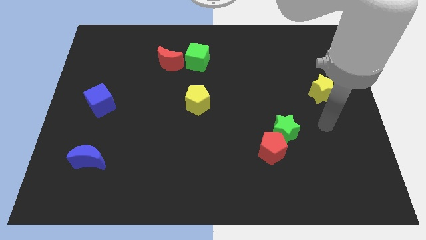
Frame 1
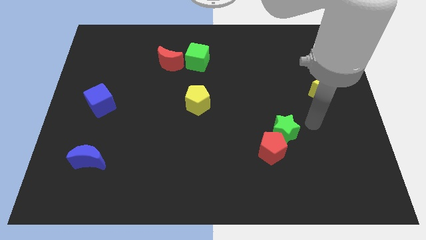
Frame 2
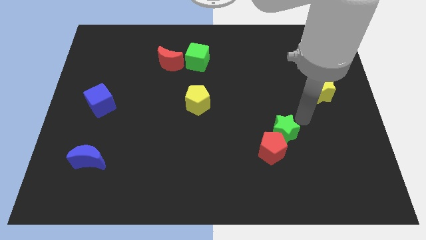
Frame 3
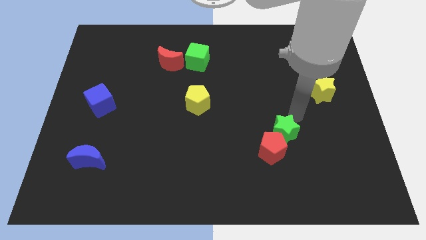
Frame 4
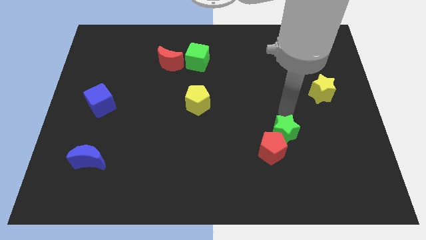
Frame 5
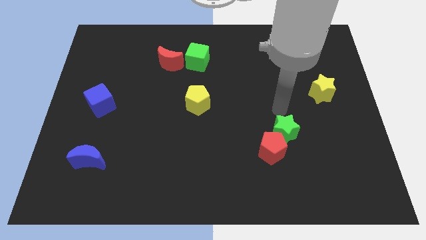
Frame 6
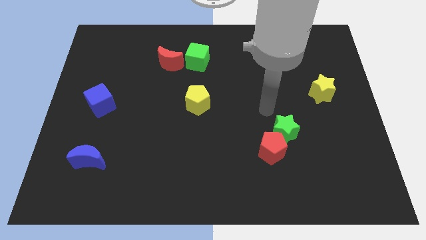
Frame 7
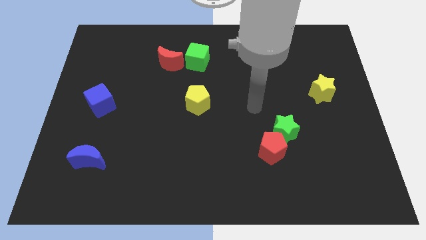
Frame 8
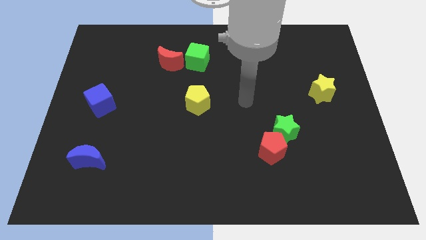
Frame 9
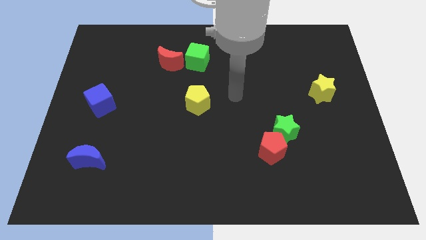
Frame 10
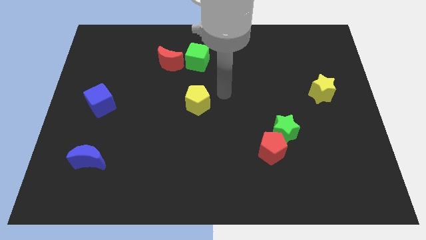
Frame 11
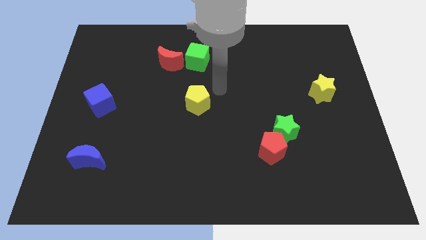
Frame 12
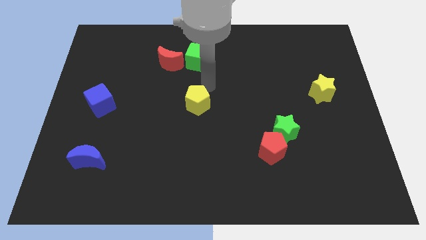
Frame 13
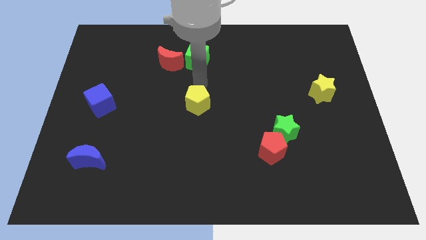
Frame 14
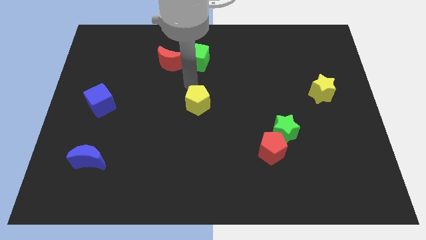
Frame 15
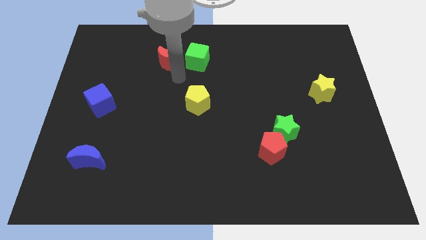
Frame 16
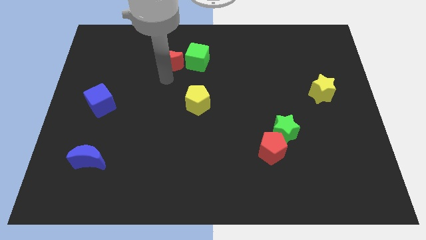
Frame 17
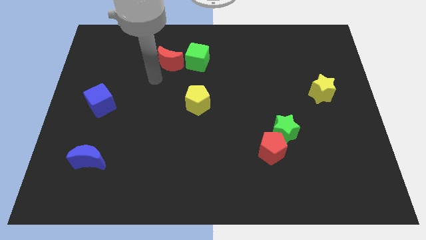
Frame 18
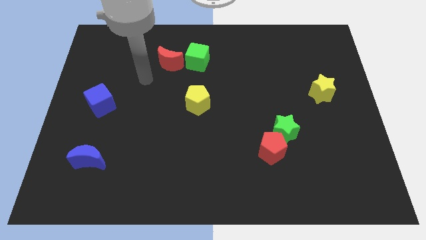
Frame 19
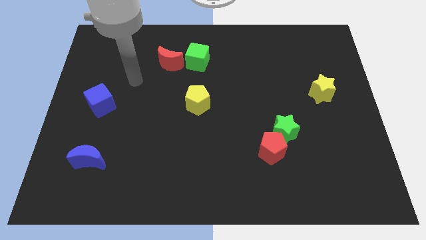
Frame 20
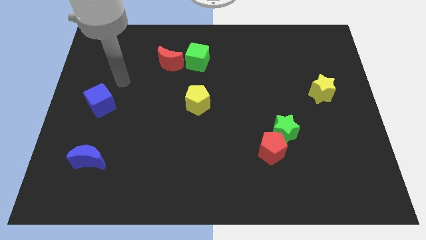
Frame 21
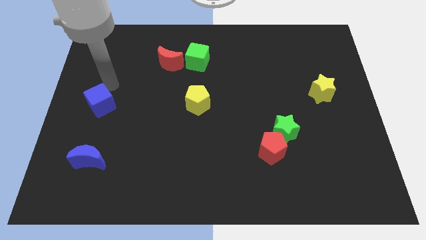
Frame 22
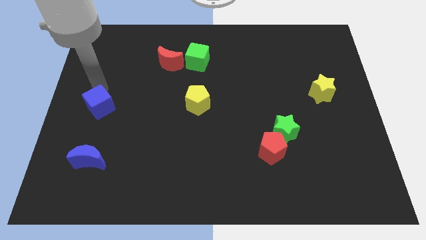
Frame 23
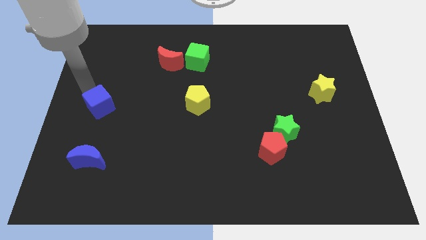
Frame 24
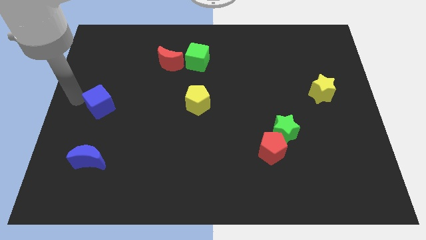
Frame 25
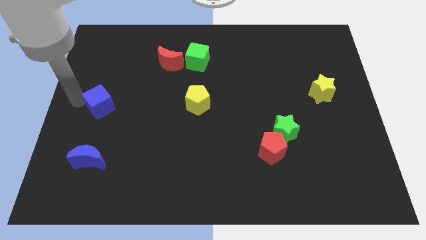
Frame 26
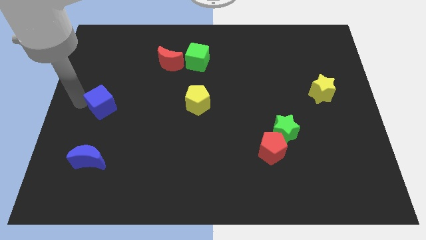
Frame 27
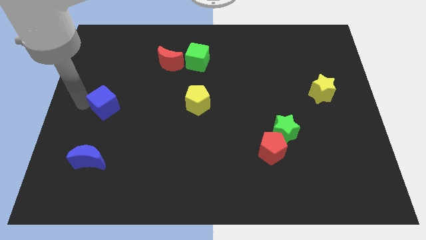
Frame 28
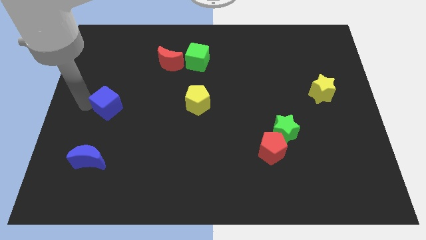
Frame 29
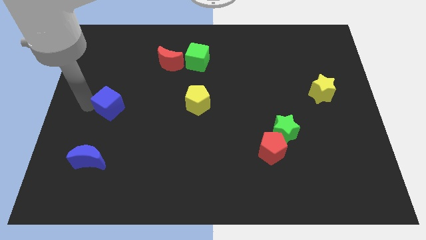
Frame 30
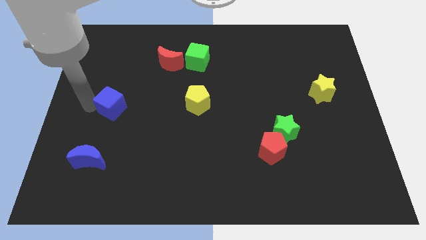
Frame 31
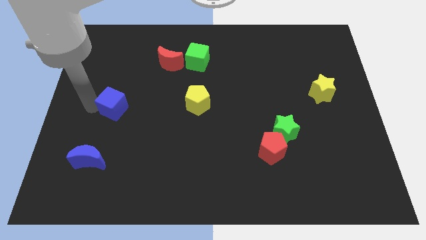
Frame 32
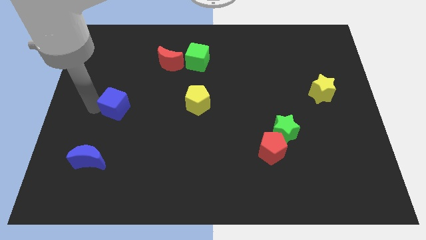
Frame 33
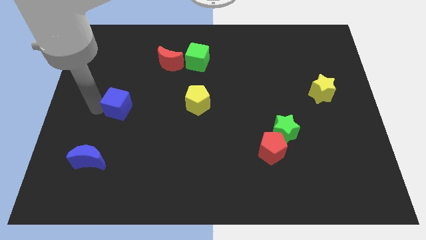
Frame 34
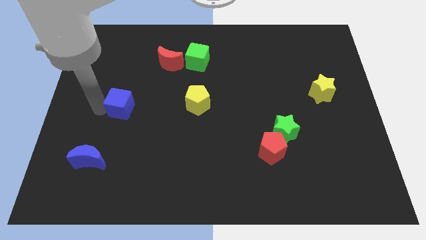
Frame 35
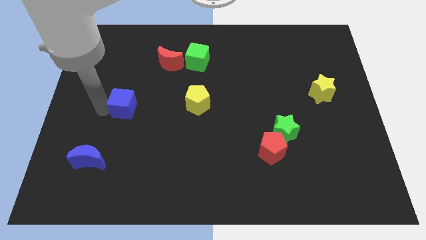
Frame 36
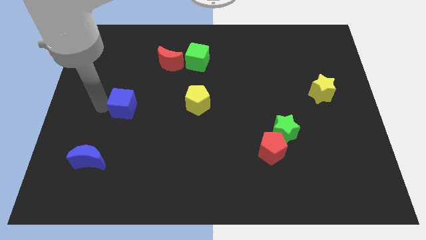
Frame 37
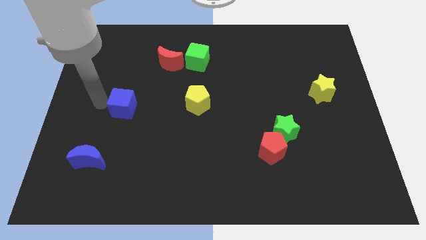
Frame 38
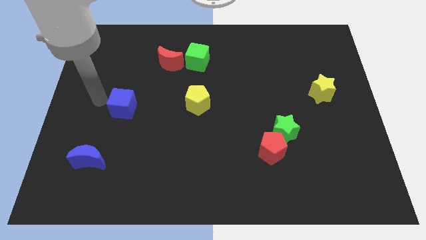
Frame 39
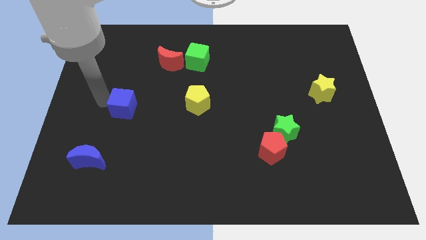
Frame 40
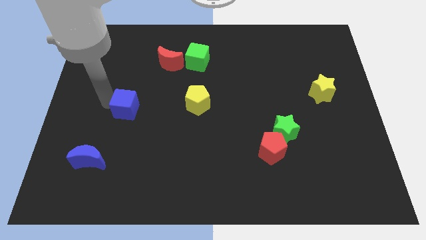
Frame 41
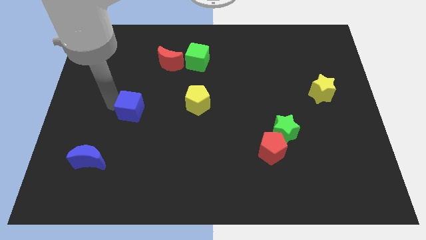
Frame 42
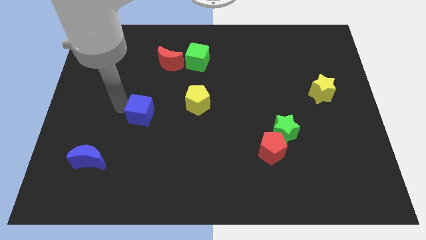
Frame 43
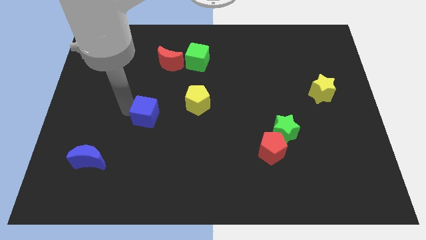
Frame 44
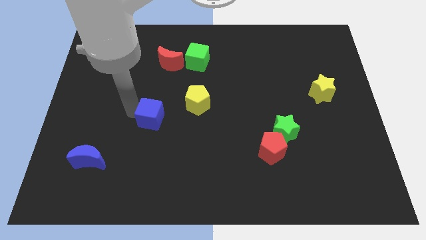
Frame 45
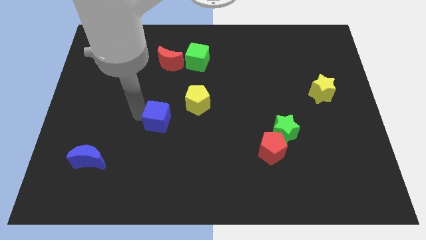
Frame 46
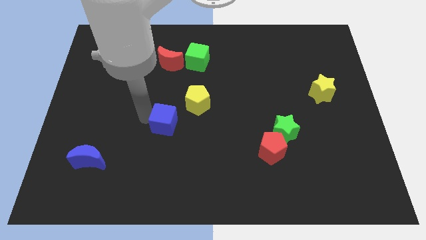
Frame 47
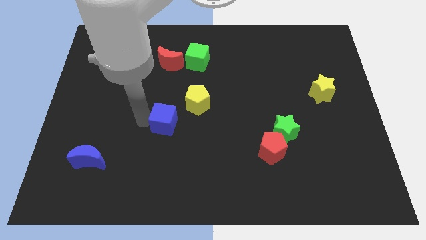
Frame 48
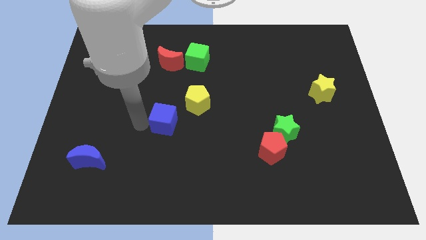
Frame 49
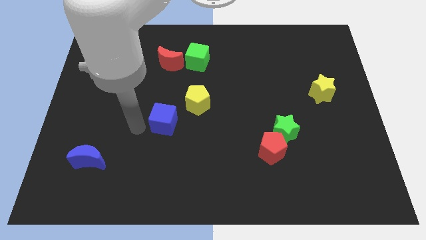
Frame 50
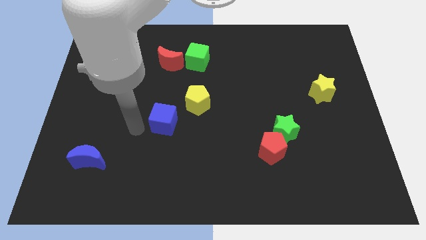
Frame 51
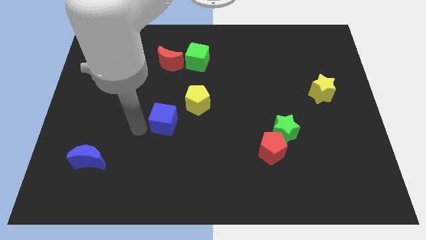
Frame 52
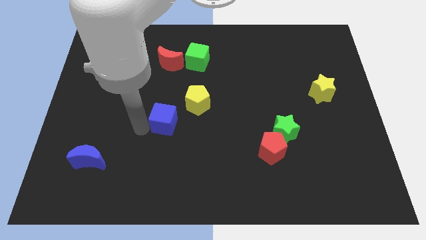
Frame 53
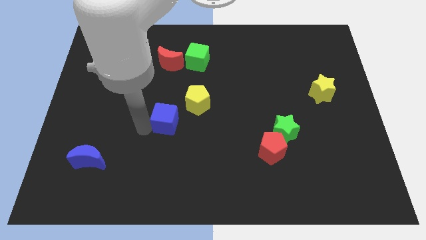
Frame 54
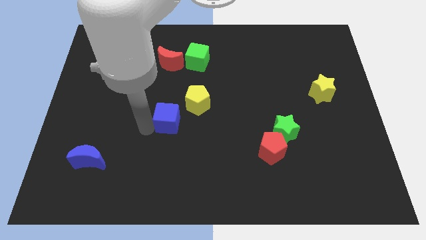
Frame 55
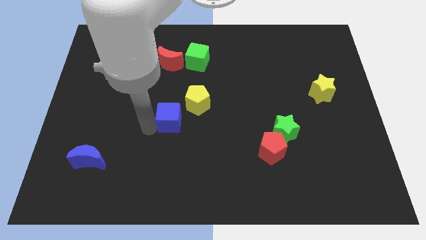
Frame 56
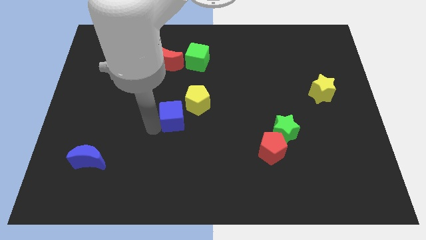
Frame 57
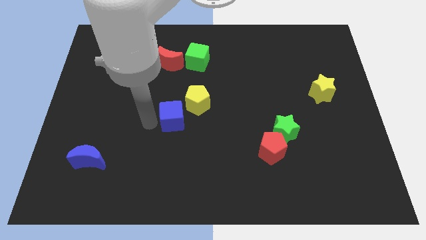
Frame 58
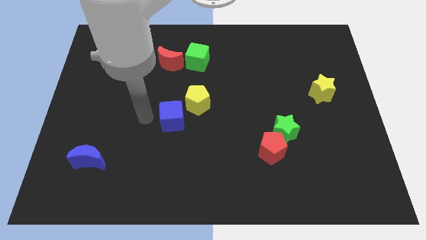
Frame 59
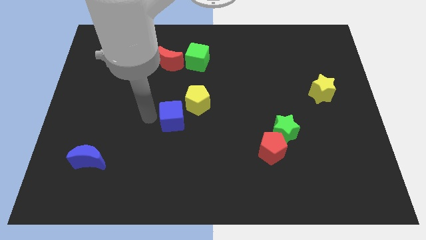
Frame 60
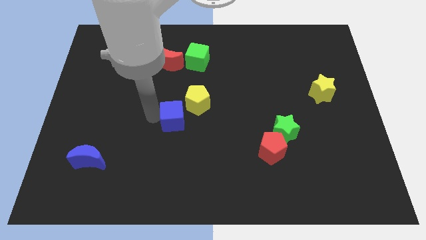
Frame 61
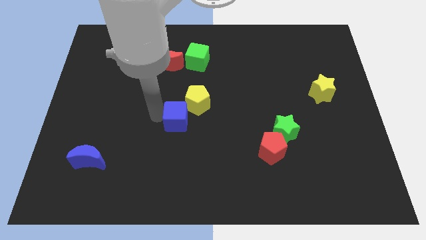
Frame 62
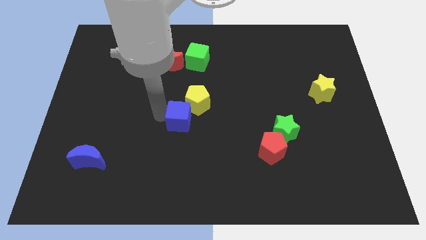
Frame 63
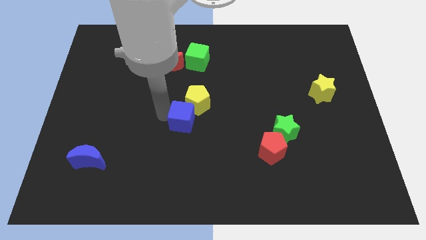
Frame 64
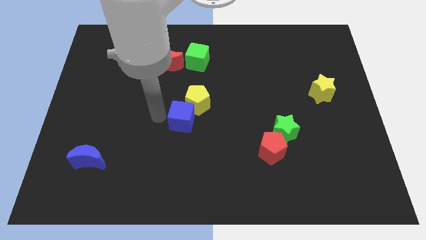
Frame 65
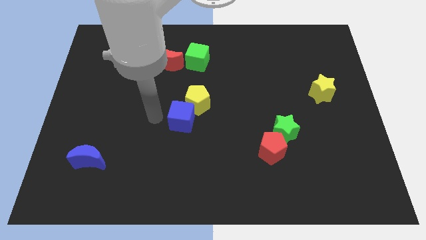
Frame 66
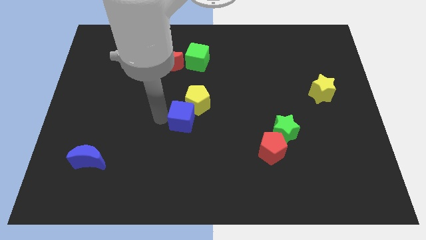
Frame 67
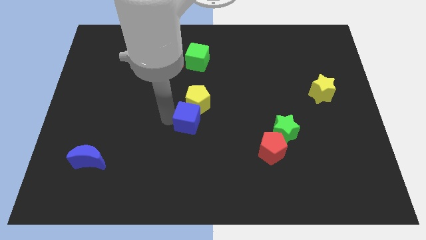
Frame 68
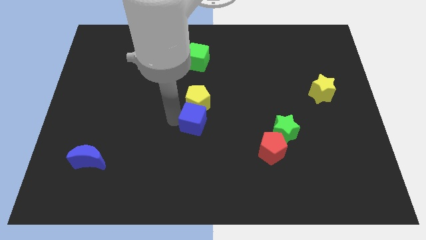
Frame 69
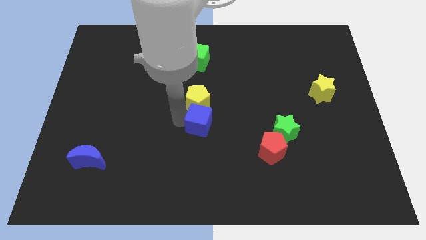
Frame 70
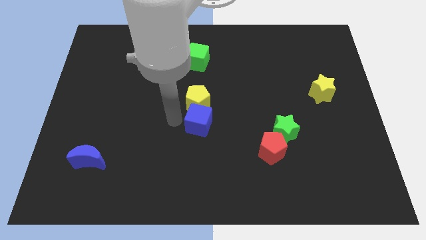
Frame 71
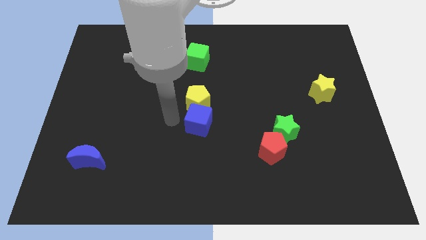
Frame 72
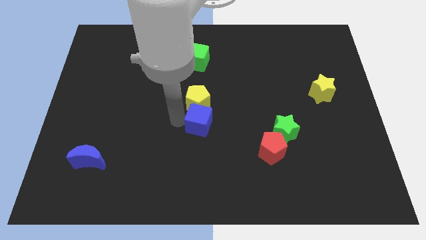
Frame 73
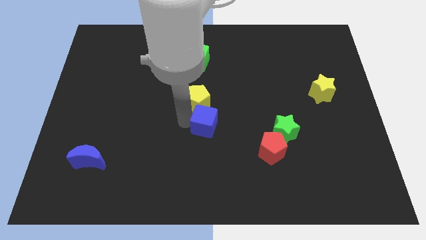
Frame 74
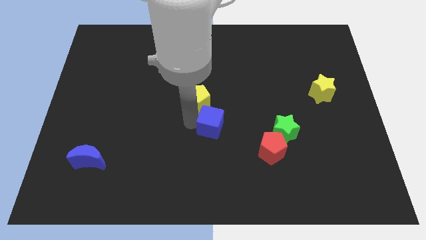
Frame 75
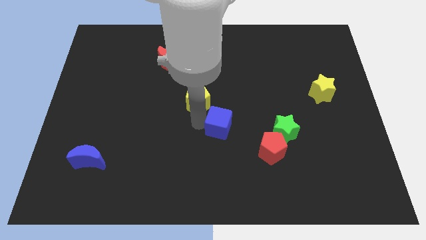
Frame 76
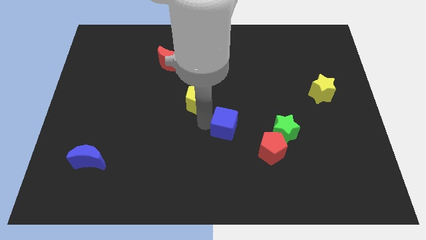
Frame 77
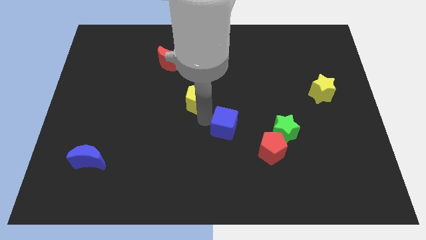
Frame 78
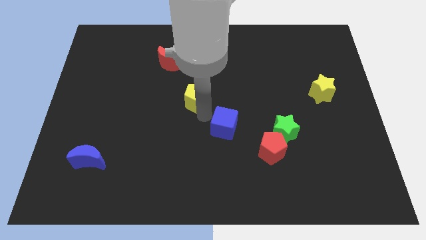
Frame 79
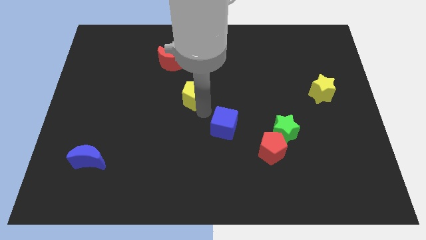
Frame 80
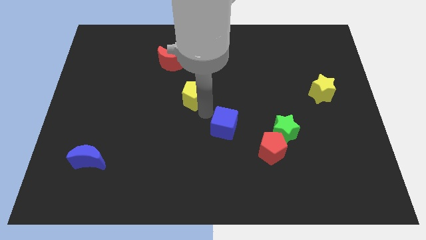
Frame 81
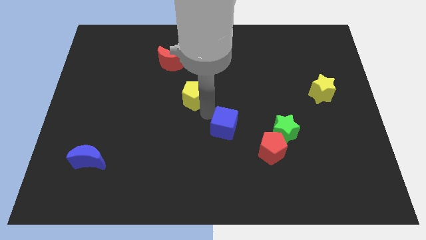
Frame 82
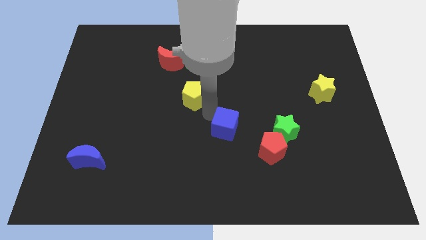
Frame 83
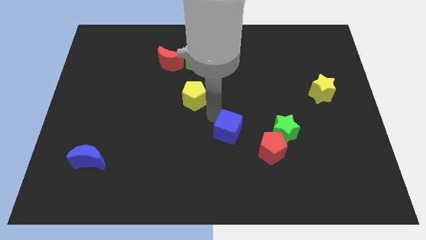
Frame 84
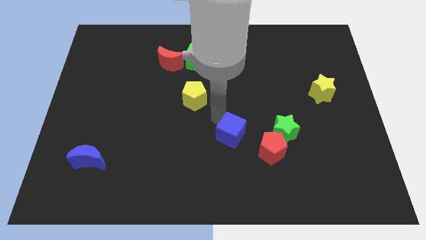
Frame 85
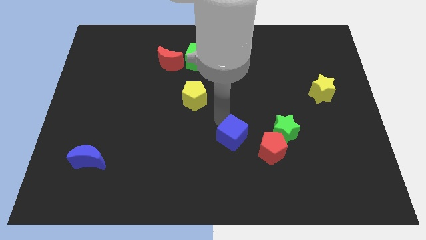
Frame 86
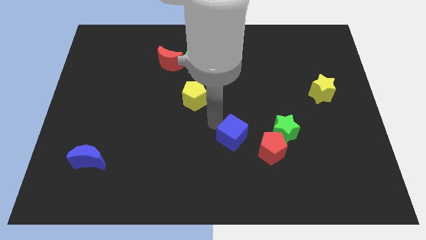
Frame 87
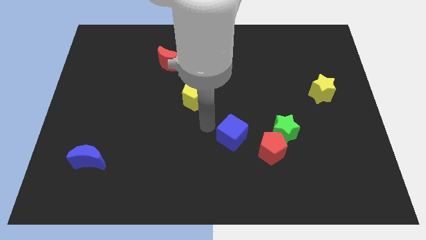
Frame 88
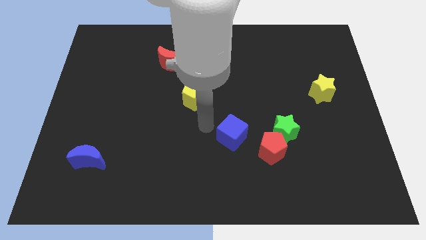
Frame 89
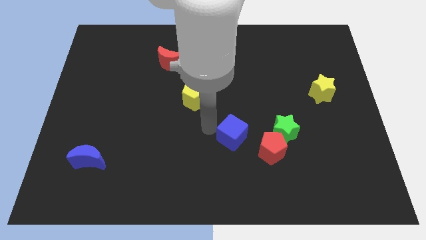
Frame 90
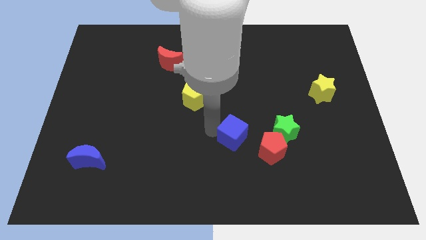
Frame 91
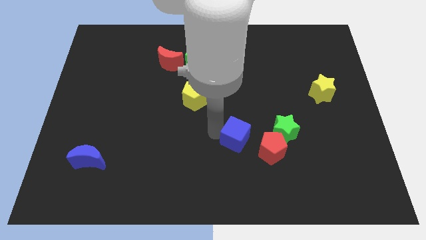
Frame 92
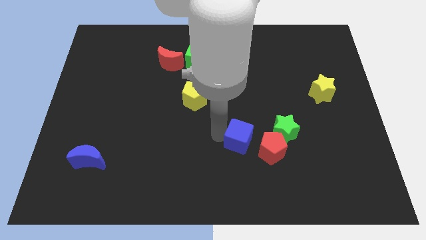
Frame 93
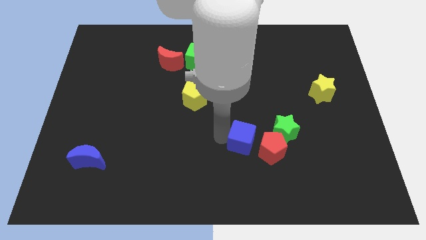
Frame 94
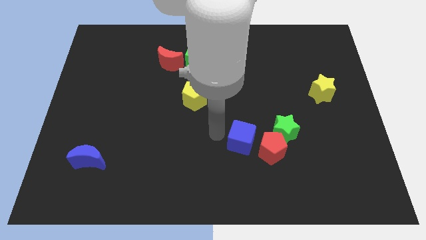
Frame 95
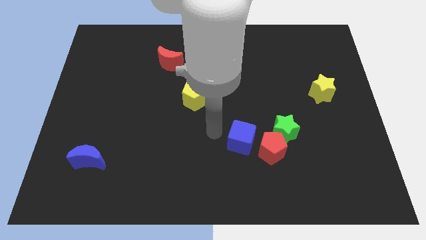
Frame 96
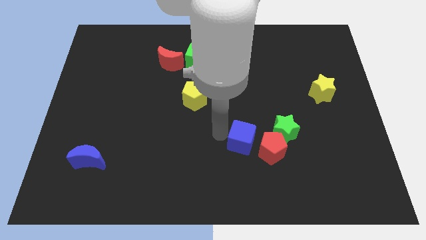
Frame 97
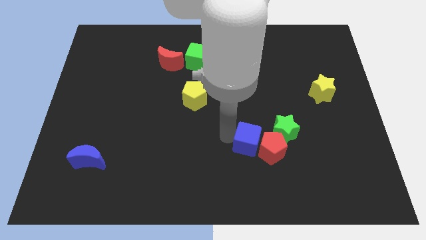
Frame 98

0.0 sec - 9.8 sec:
move the blue cube close to the red pentagon
